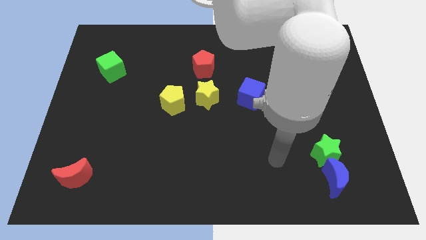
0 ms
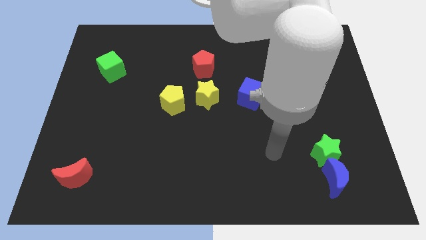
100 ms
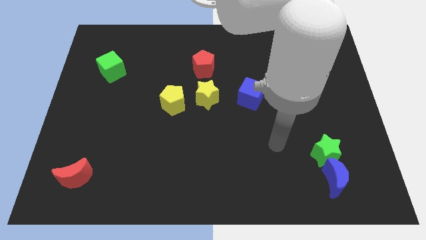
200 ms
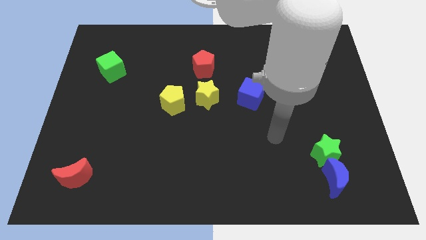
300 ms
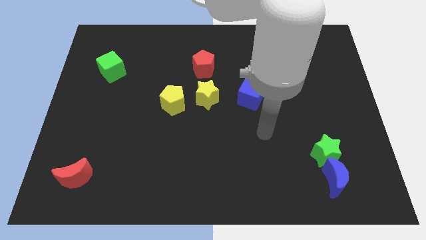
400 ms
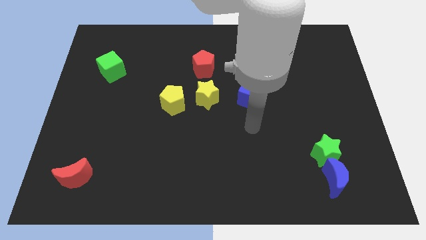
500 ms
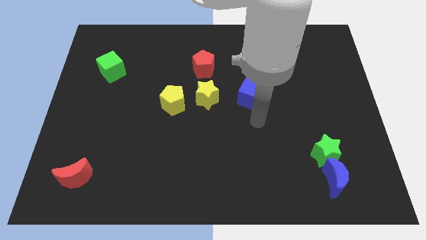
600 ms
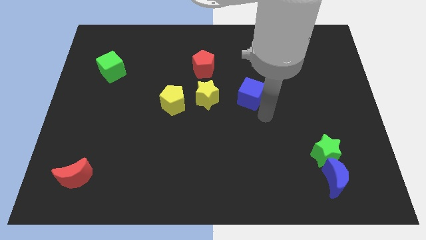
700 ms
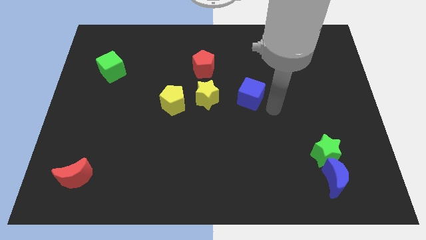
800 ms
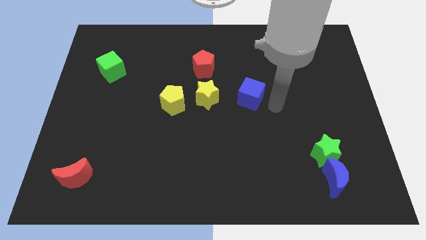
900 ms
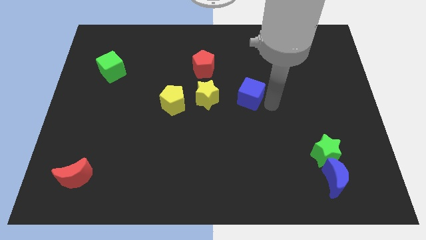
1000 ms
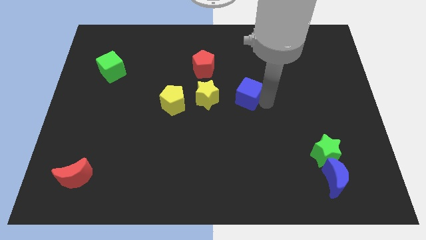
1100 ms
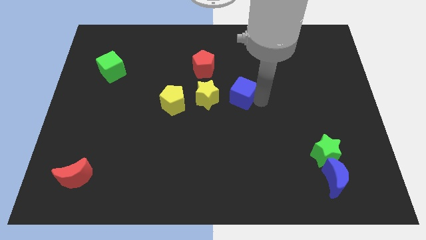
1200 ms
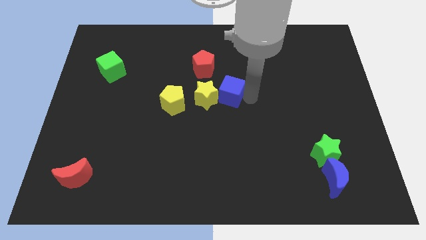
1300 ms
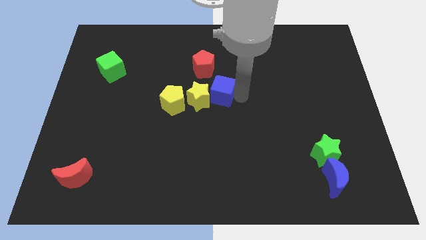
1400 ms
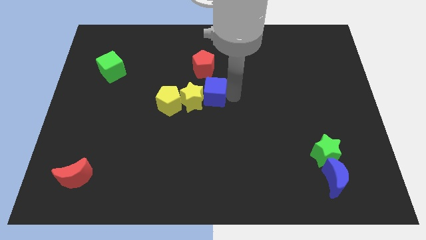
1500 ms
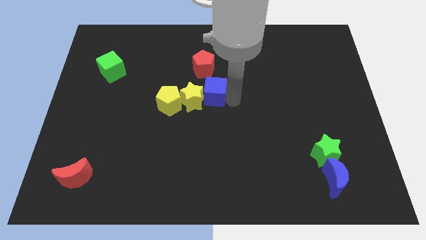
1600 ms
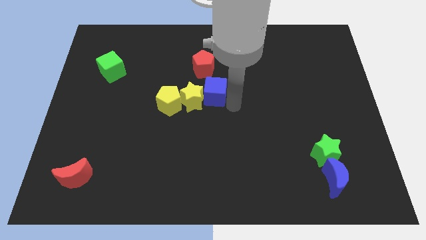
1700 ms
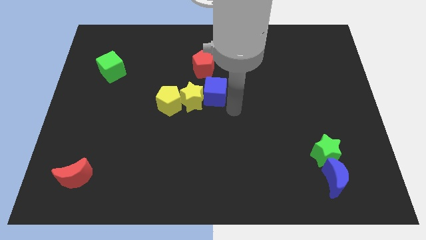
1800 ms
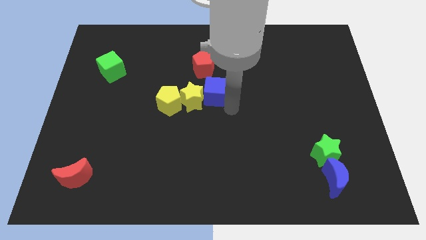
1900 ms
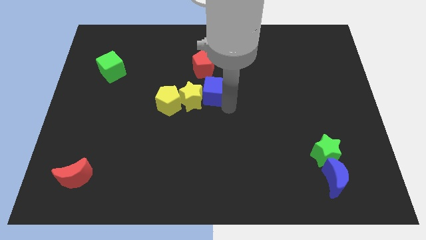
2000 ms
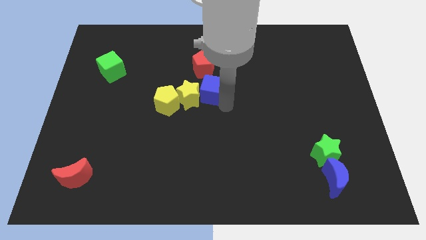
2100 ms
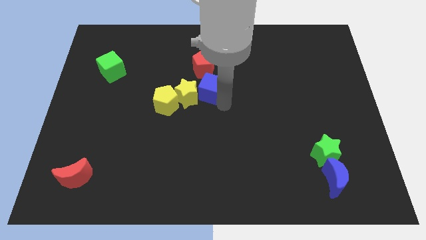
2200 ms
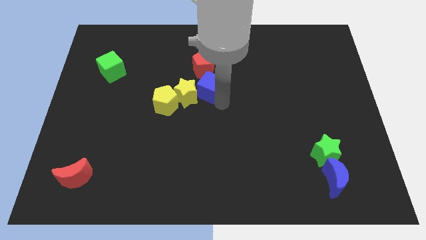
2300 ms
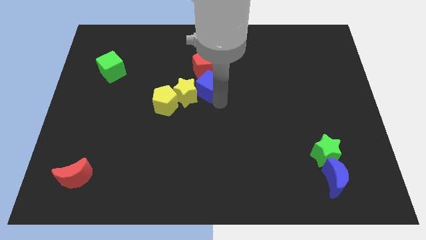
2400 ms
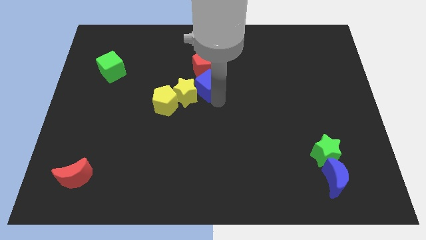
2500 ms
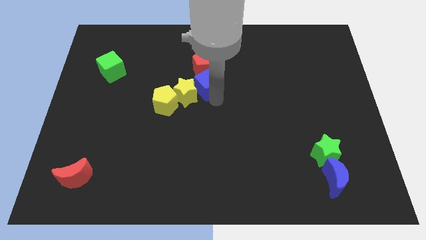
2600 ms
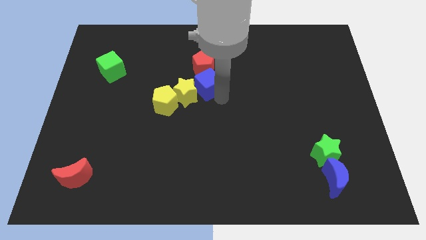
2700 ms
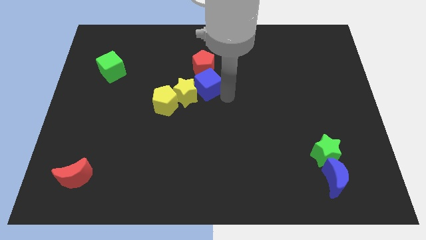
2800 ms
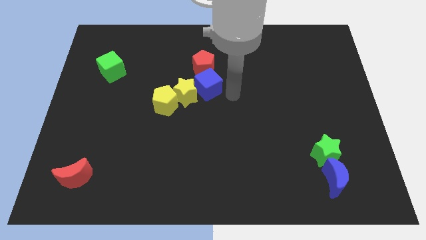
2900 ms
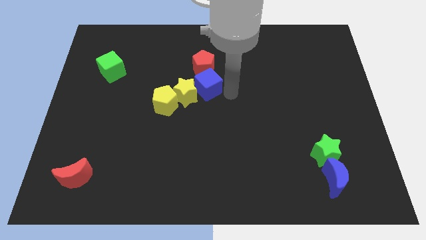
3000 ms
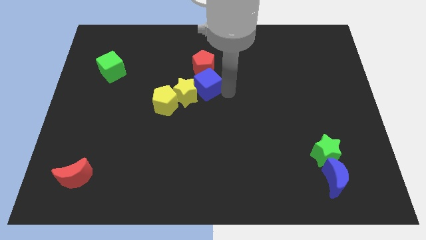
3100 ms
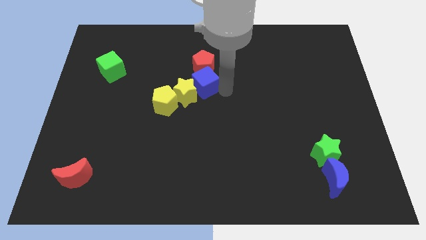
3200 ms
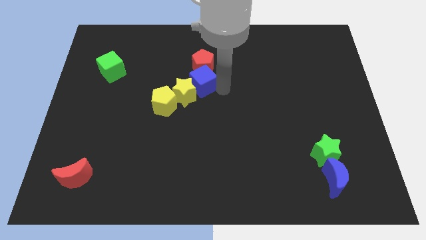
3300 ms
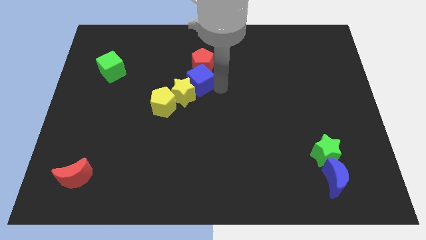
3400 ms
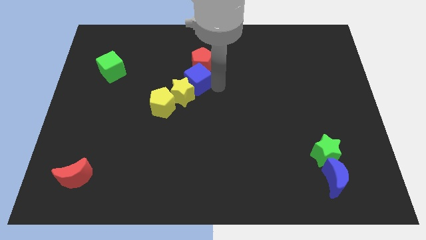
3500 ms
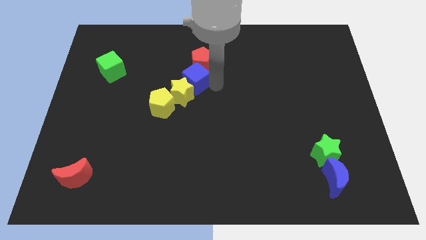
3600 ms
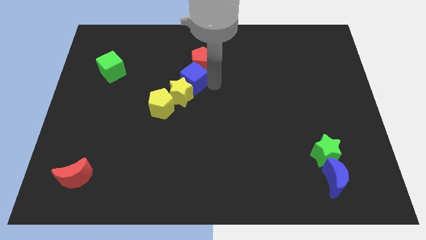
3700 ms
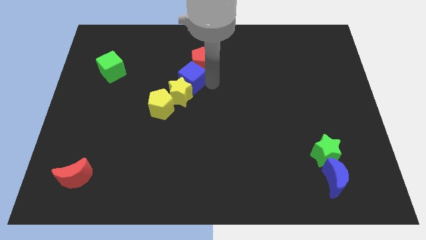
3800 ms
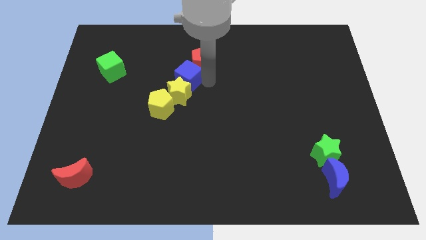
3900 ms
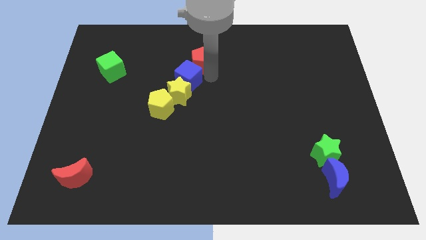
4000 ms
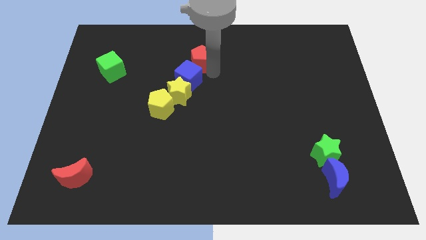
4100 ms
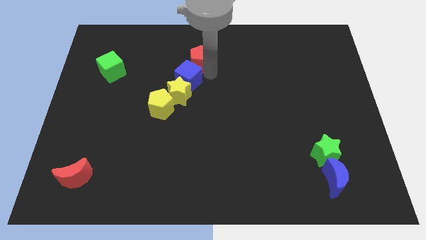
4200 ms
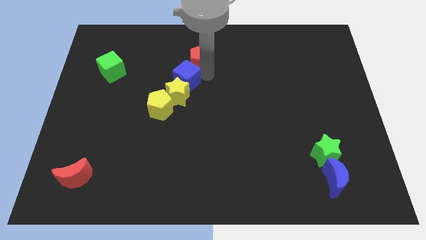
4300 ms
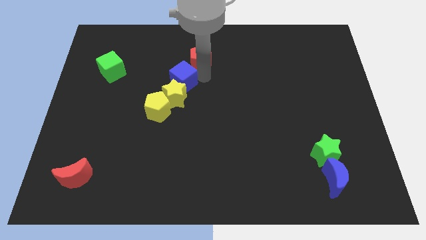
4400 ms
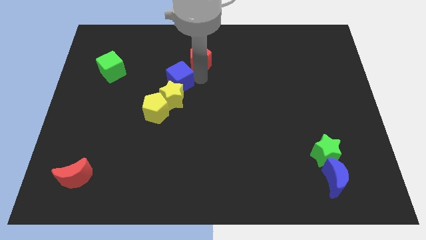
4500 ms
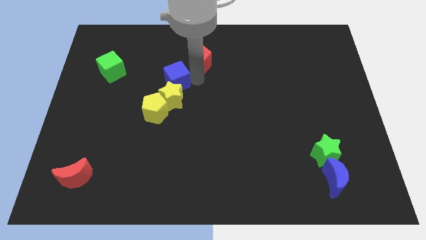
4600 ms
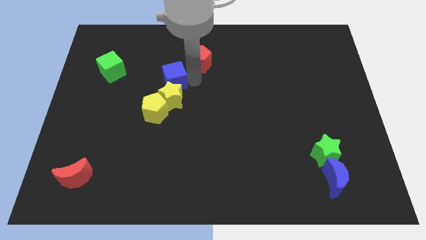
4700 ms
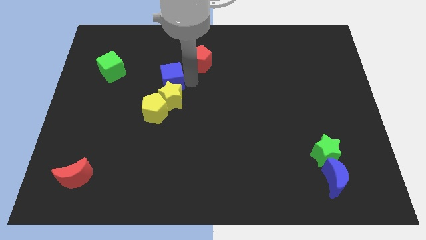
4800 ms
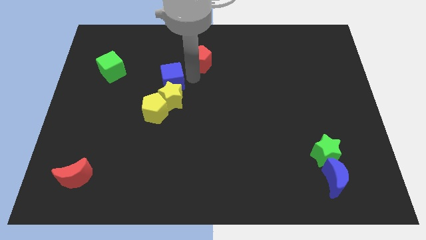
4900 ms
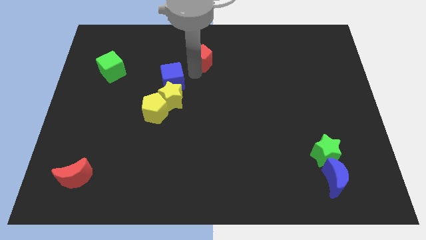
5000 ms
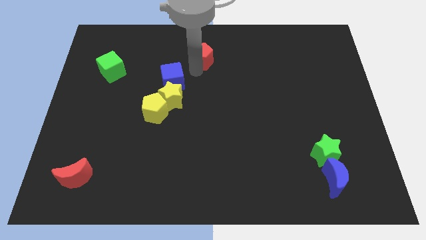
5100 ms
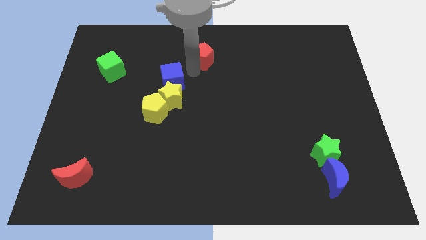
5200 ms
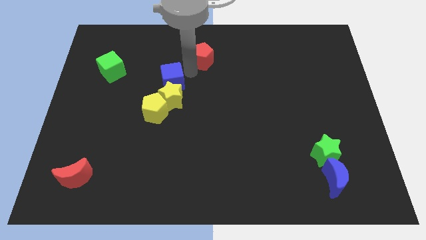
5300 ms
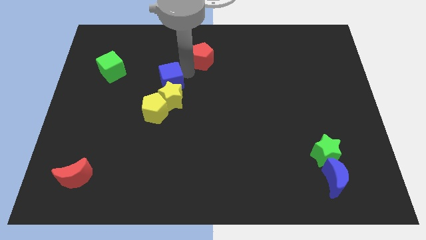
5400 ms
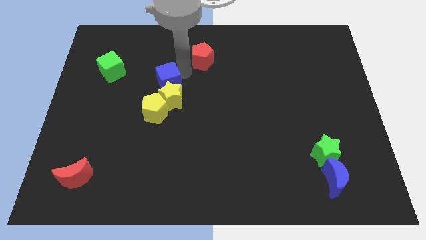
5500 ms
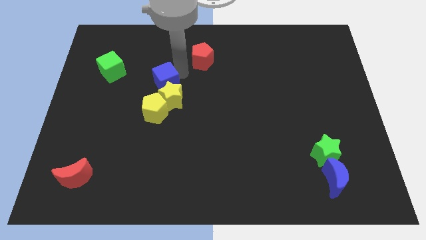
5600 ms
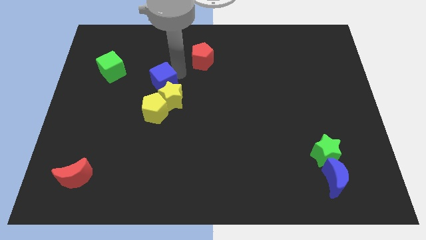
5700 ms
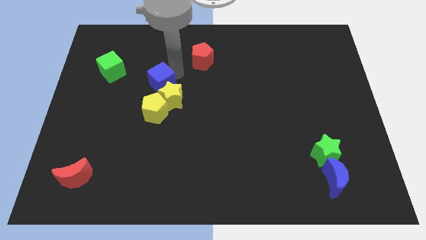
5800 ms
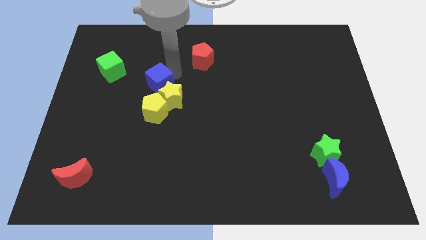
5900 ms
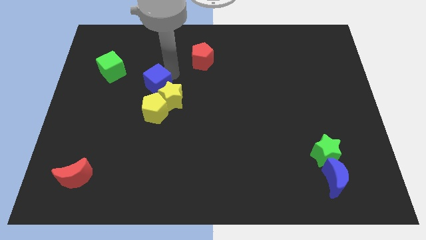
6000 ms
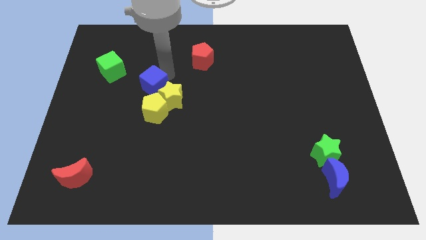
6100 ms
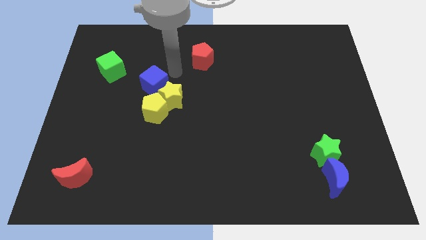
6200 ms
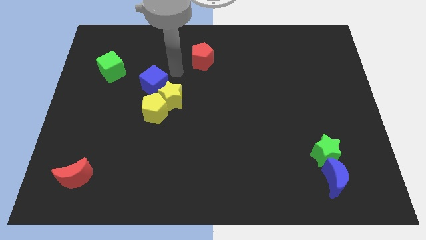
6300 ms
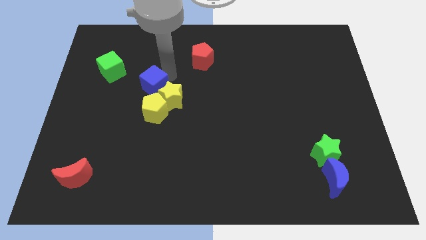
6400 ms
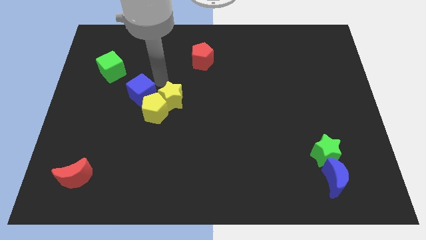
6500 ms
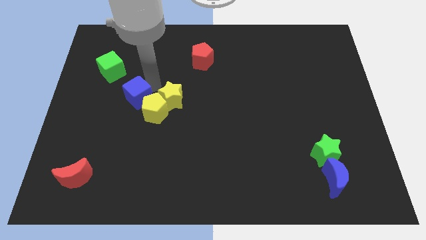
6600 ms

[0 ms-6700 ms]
put the blue cube to the left of the yellow pentagon
